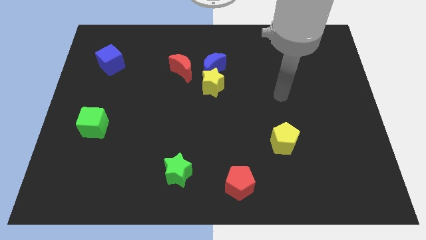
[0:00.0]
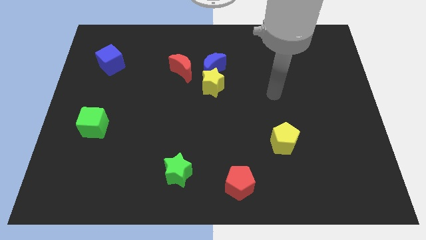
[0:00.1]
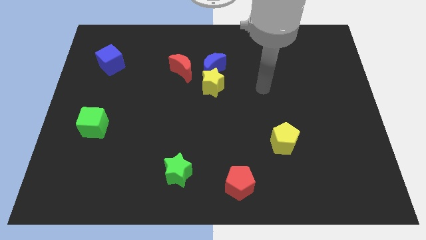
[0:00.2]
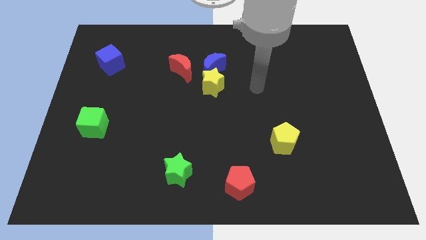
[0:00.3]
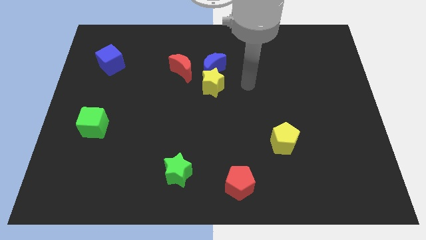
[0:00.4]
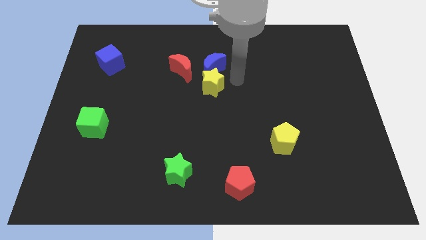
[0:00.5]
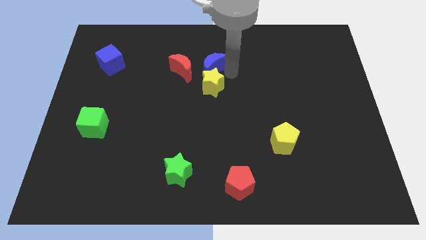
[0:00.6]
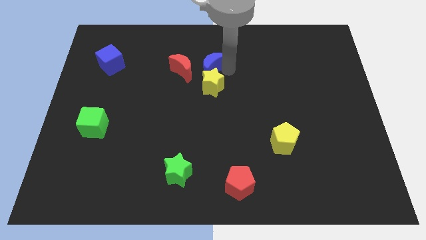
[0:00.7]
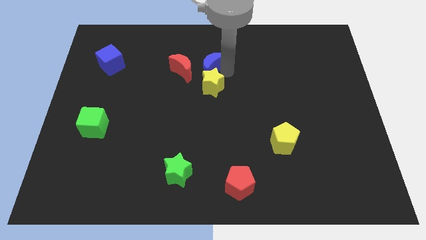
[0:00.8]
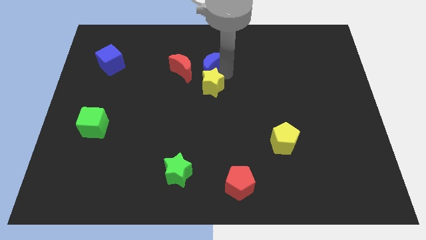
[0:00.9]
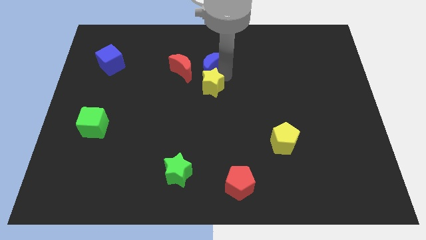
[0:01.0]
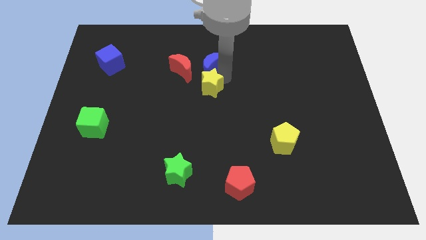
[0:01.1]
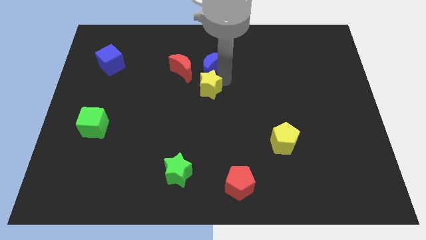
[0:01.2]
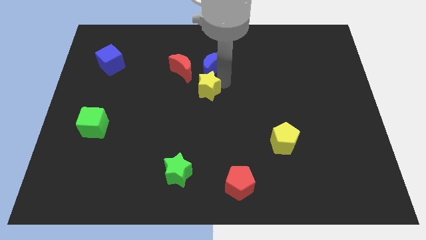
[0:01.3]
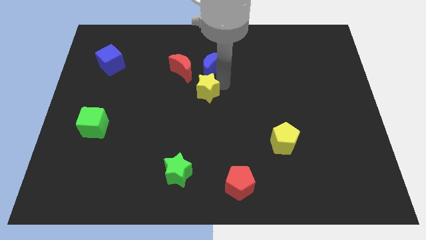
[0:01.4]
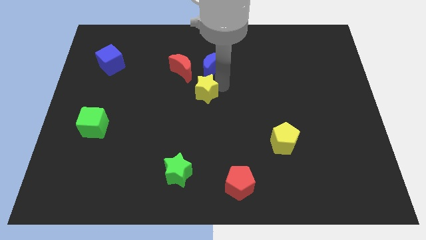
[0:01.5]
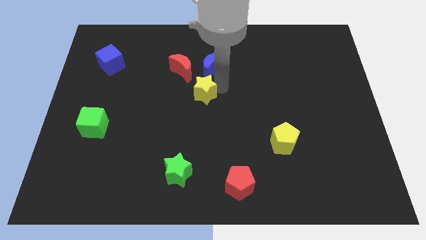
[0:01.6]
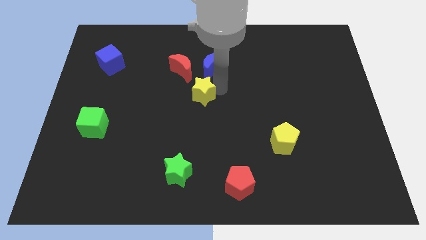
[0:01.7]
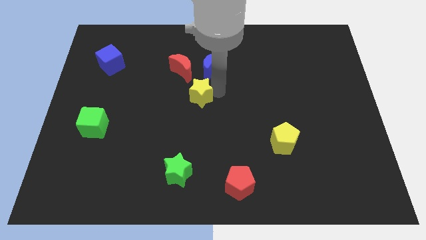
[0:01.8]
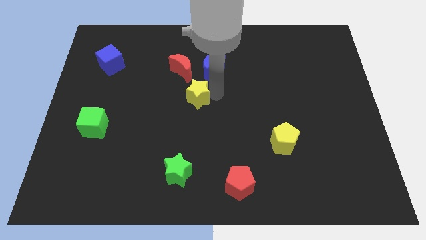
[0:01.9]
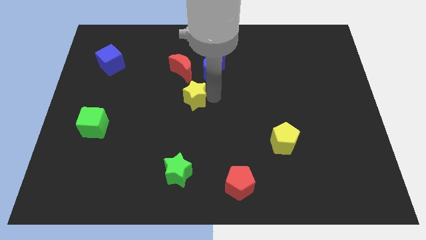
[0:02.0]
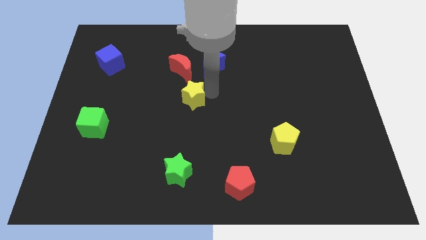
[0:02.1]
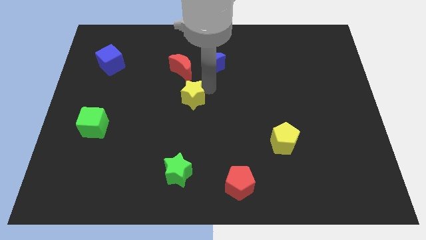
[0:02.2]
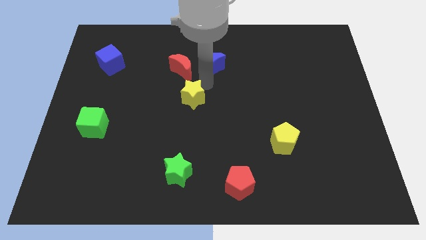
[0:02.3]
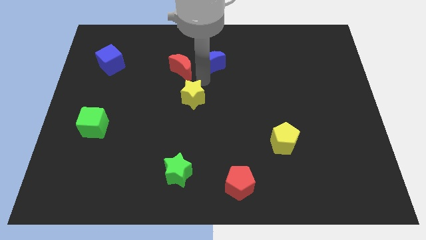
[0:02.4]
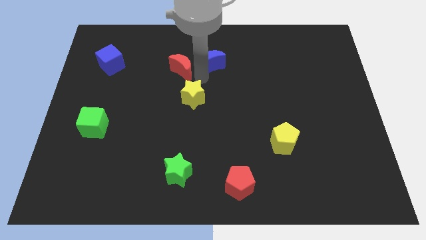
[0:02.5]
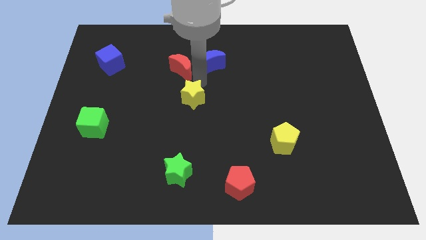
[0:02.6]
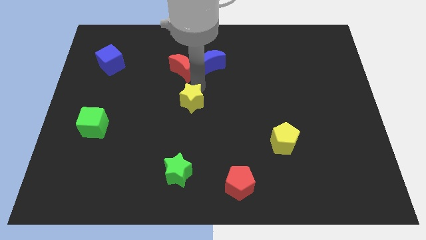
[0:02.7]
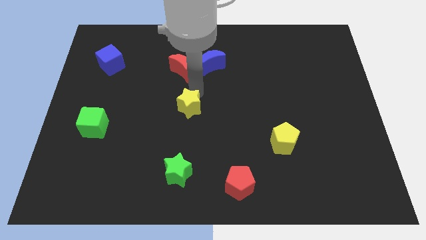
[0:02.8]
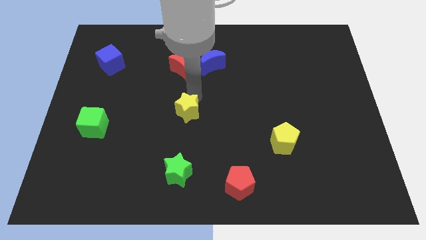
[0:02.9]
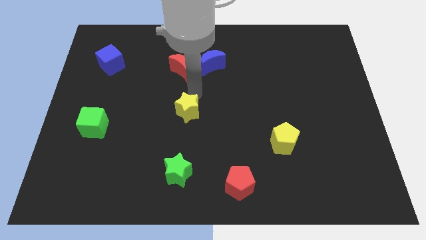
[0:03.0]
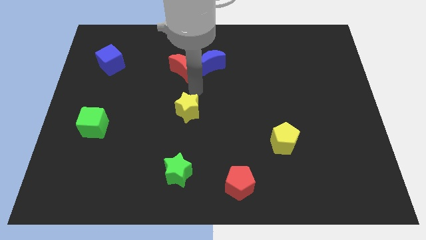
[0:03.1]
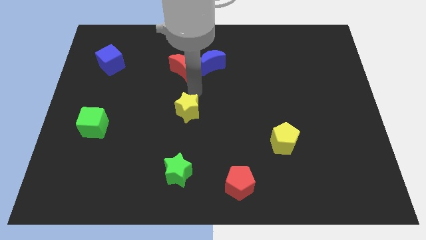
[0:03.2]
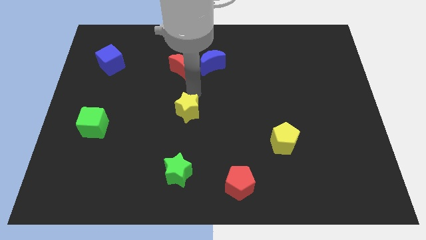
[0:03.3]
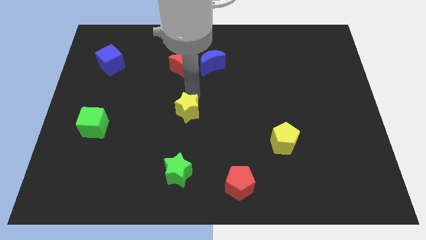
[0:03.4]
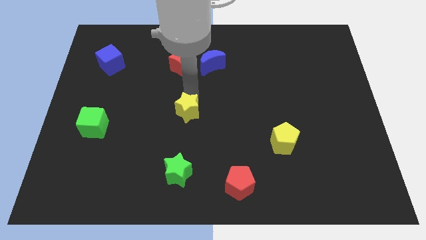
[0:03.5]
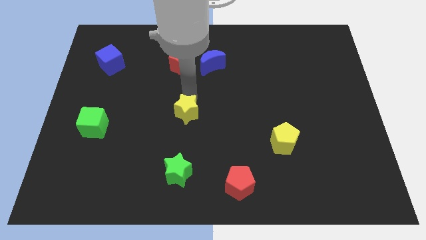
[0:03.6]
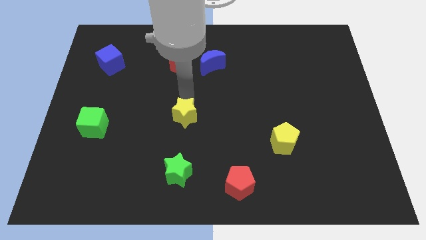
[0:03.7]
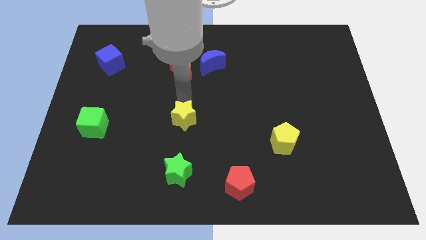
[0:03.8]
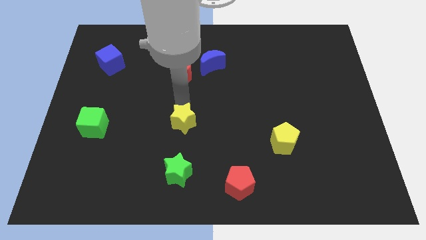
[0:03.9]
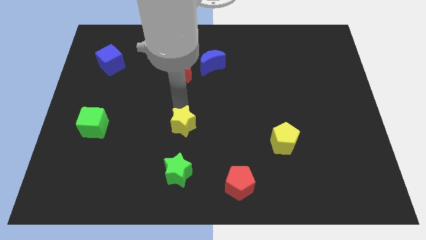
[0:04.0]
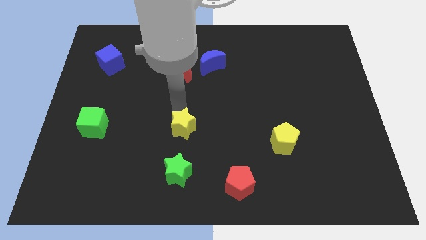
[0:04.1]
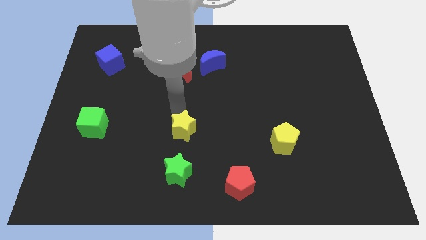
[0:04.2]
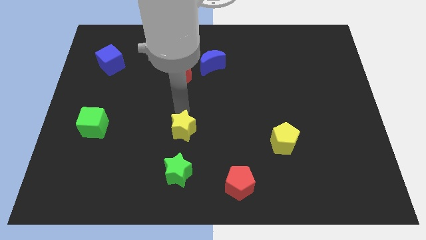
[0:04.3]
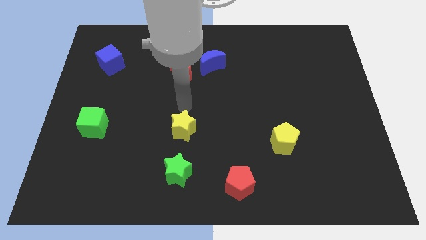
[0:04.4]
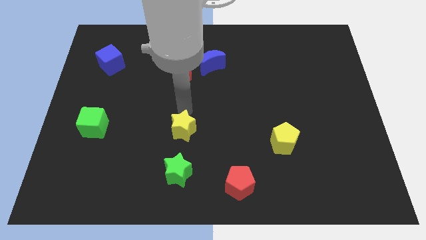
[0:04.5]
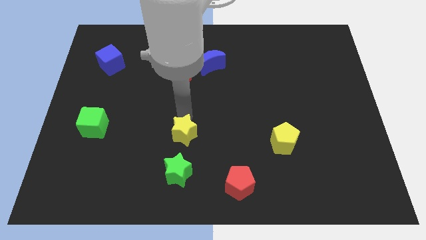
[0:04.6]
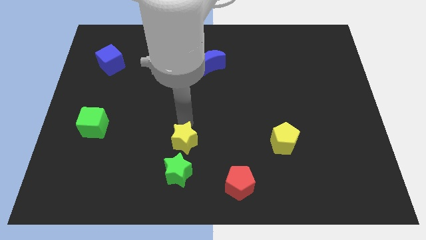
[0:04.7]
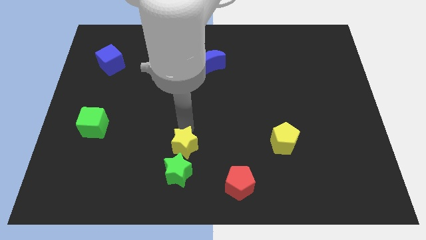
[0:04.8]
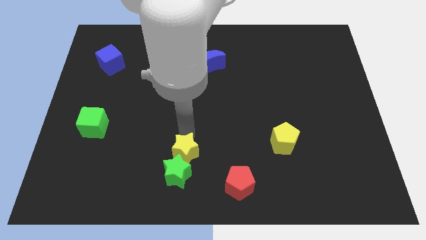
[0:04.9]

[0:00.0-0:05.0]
push the yellow star towards the green star

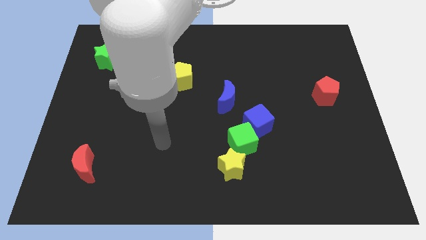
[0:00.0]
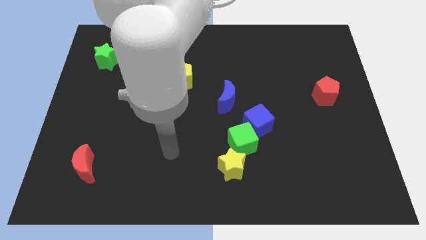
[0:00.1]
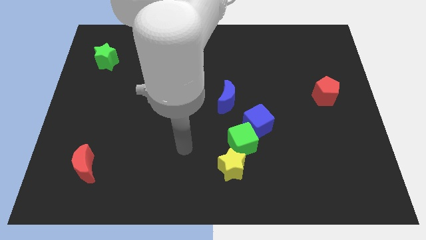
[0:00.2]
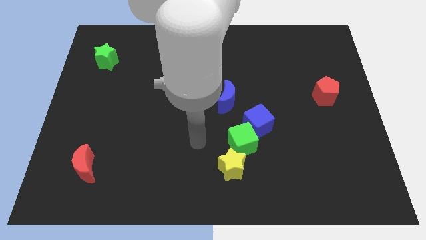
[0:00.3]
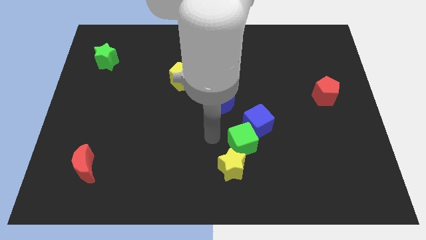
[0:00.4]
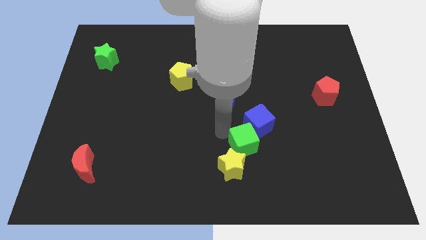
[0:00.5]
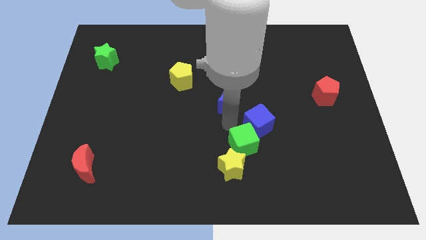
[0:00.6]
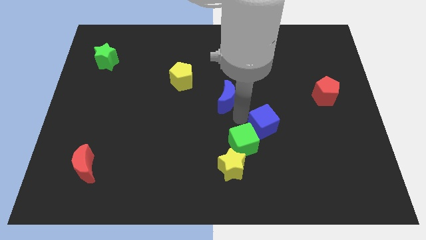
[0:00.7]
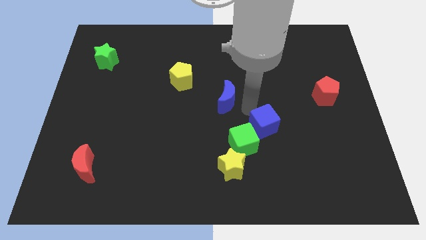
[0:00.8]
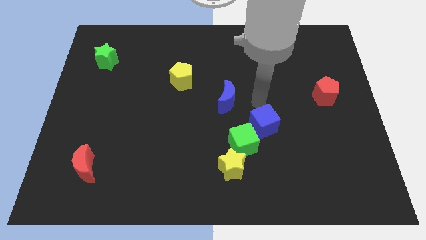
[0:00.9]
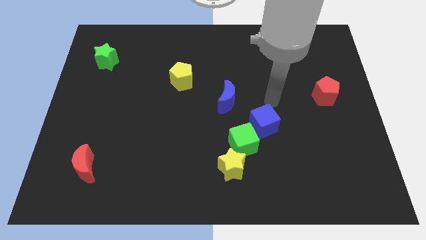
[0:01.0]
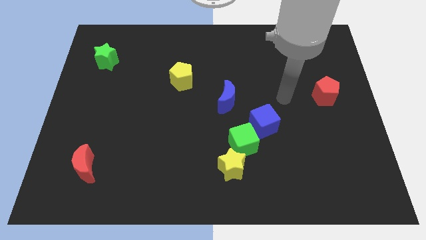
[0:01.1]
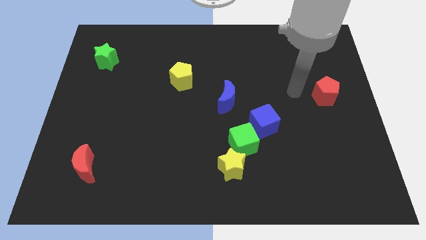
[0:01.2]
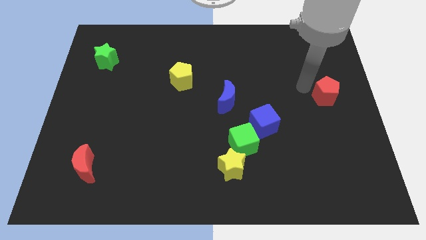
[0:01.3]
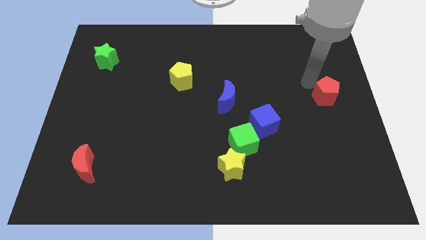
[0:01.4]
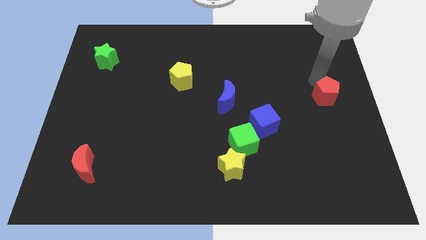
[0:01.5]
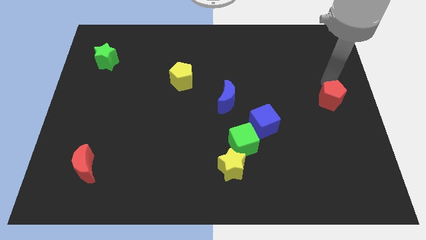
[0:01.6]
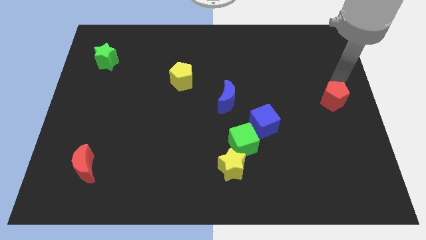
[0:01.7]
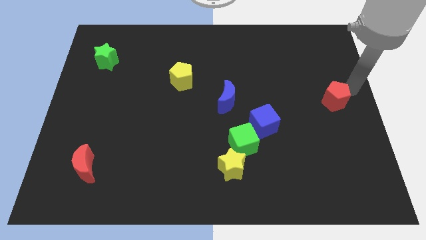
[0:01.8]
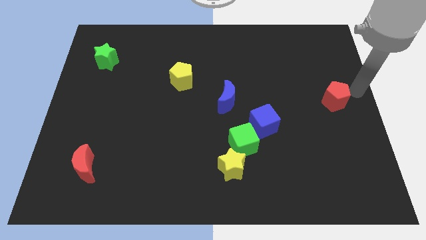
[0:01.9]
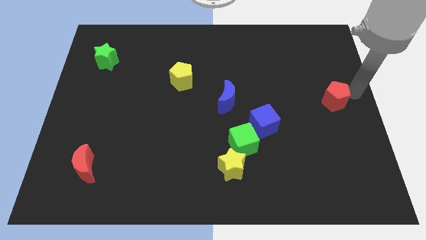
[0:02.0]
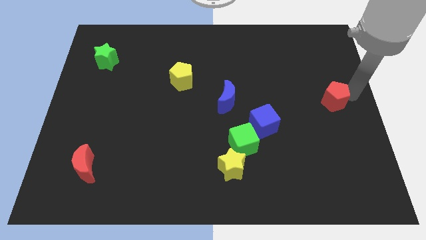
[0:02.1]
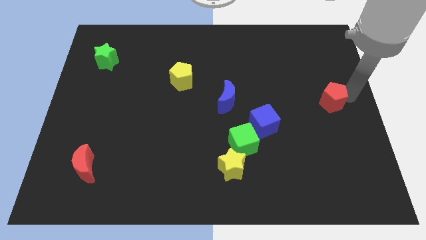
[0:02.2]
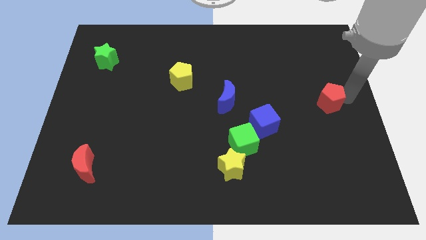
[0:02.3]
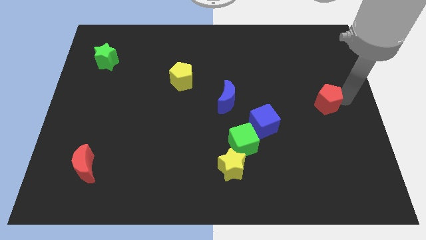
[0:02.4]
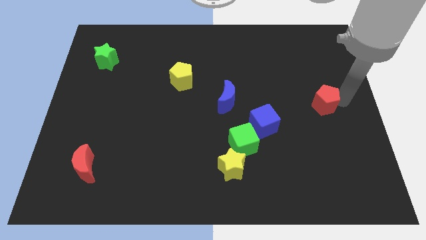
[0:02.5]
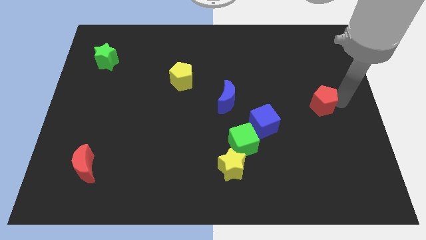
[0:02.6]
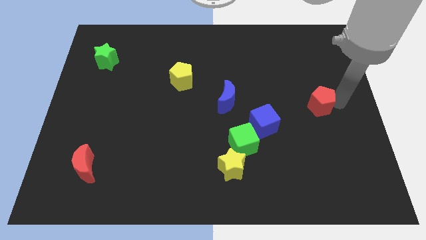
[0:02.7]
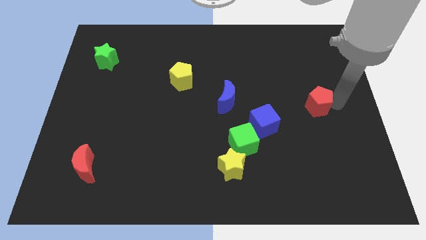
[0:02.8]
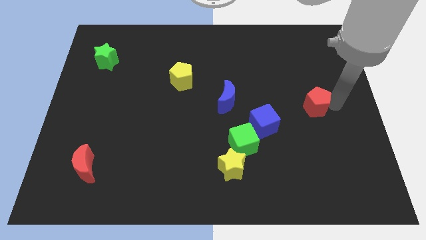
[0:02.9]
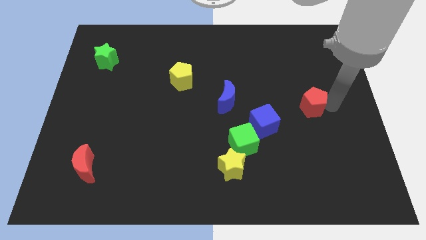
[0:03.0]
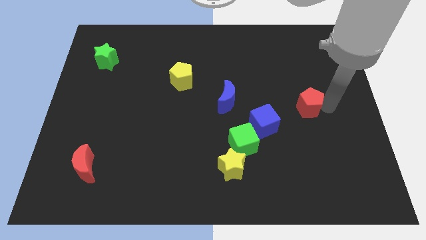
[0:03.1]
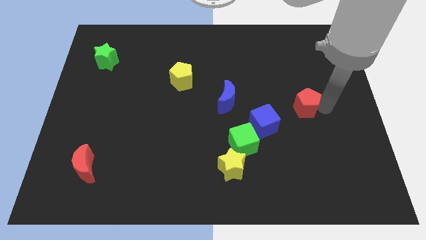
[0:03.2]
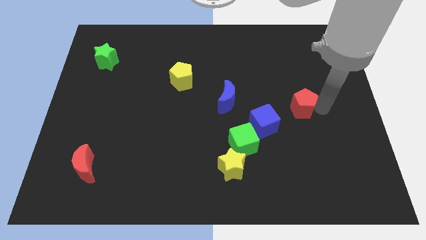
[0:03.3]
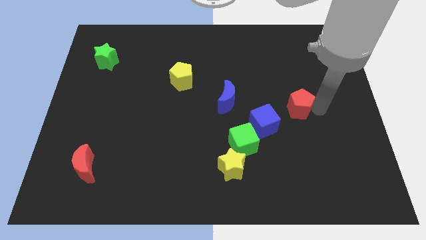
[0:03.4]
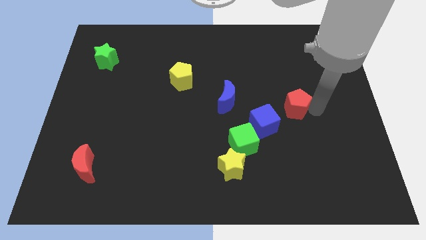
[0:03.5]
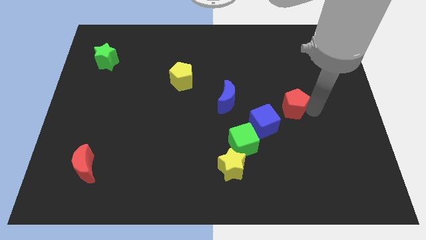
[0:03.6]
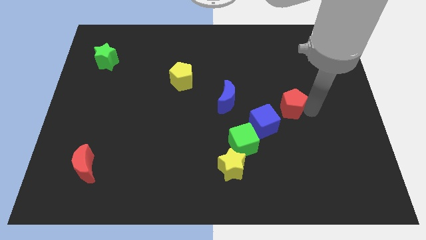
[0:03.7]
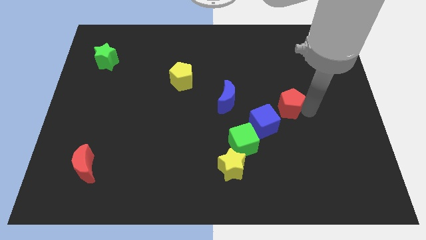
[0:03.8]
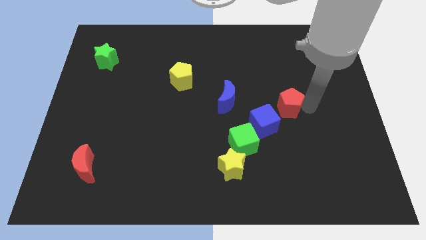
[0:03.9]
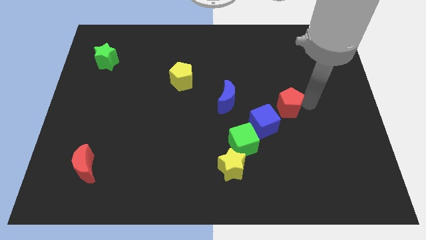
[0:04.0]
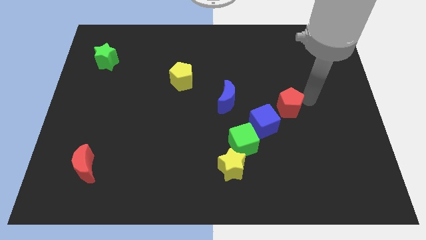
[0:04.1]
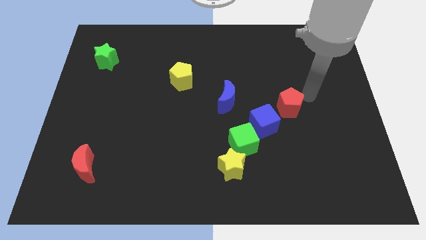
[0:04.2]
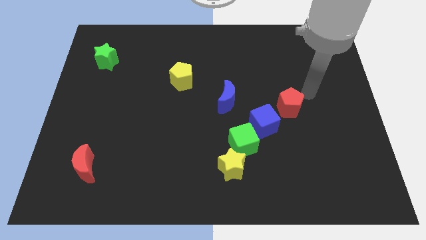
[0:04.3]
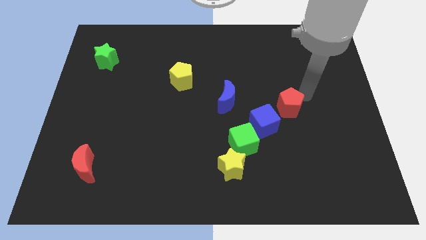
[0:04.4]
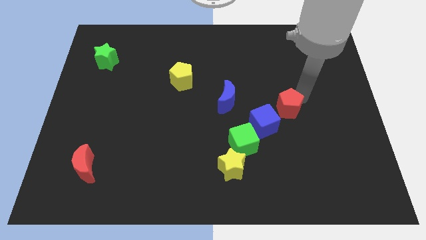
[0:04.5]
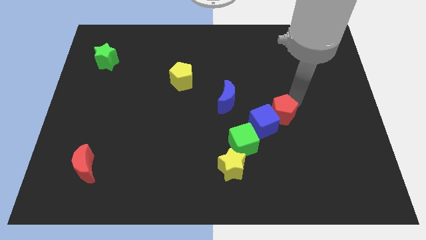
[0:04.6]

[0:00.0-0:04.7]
move the red pentagon next to the blue cube
